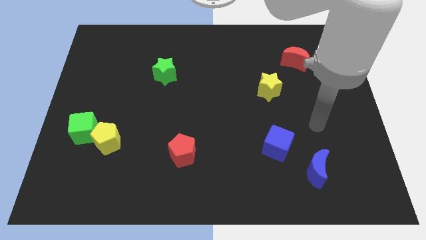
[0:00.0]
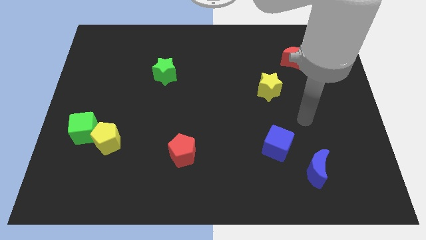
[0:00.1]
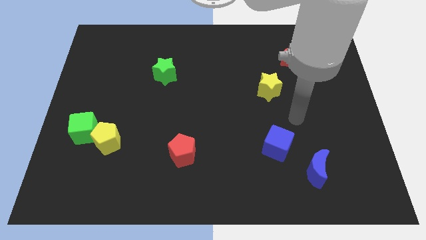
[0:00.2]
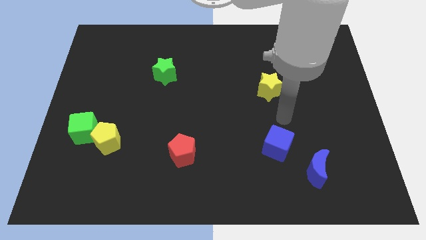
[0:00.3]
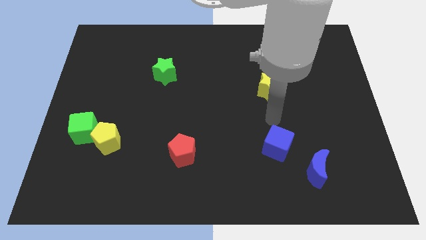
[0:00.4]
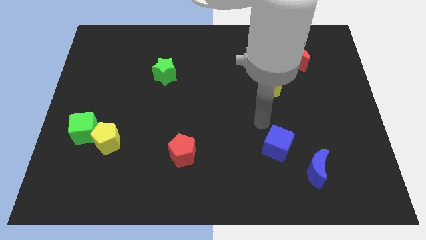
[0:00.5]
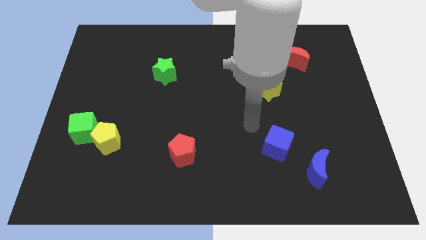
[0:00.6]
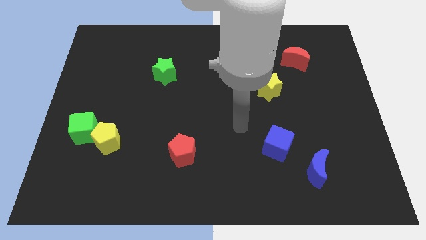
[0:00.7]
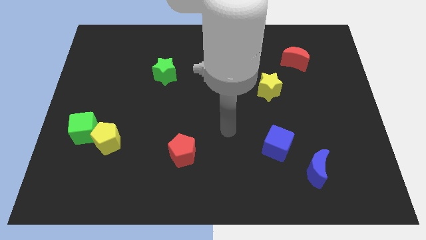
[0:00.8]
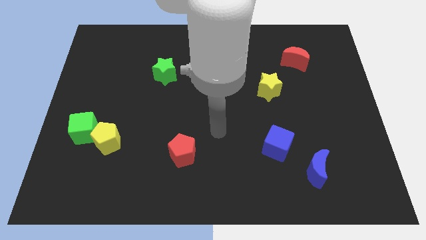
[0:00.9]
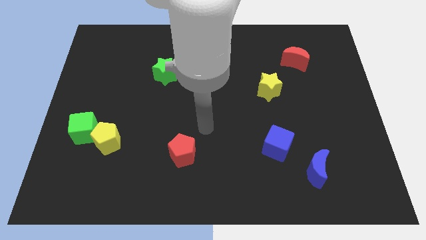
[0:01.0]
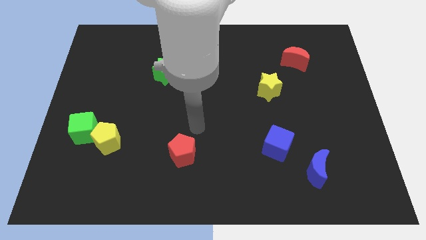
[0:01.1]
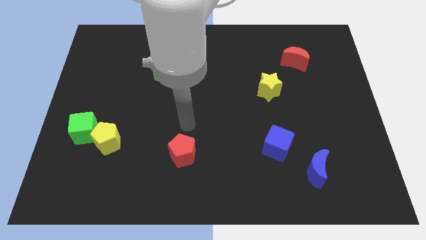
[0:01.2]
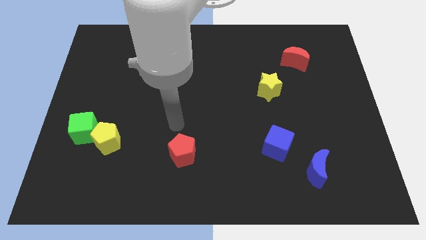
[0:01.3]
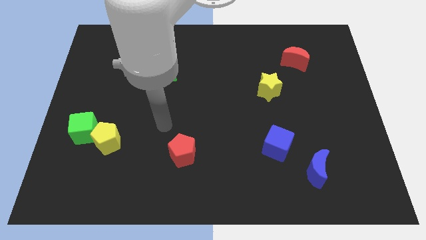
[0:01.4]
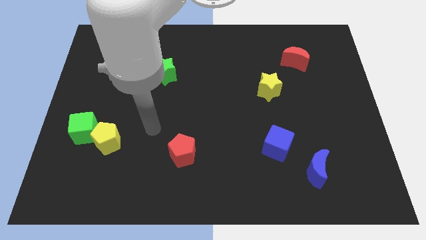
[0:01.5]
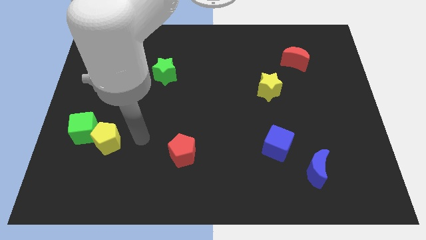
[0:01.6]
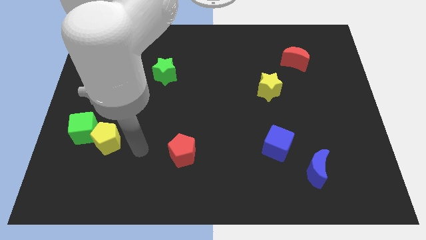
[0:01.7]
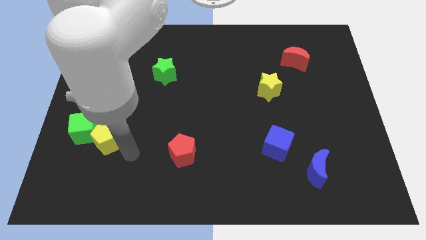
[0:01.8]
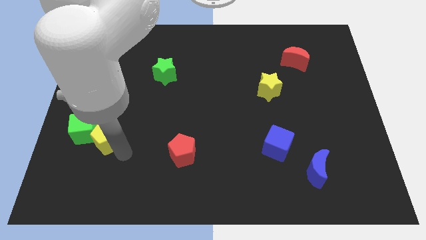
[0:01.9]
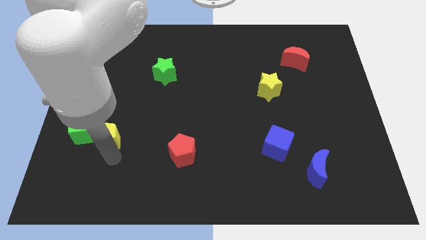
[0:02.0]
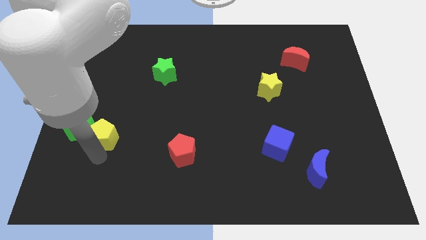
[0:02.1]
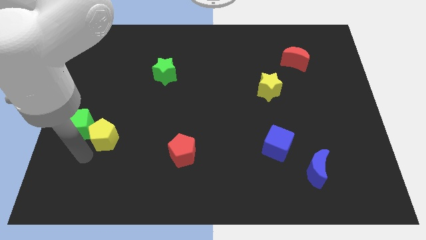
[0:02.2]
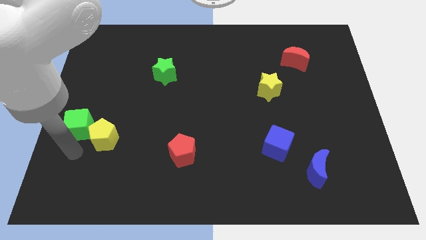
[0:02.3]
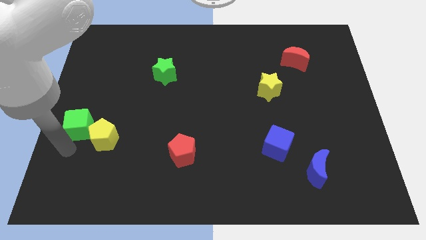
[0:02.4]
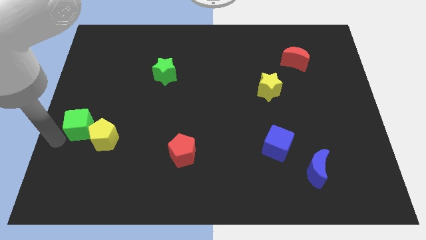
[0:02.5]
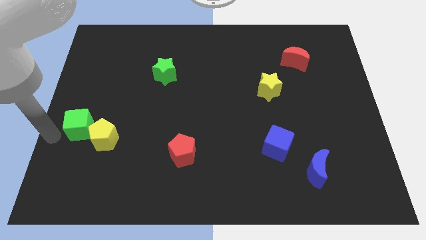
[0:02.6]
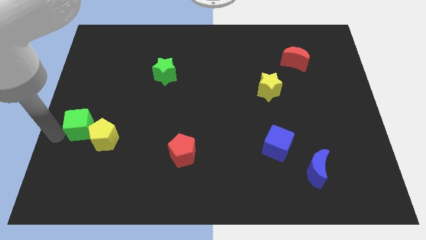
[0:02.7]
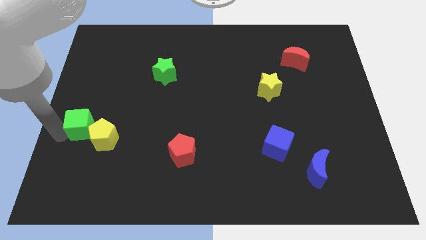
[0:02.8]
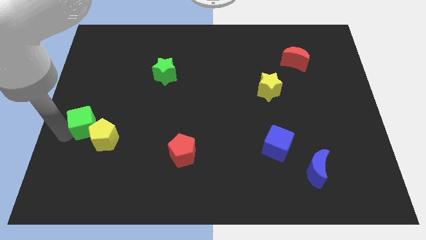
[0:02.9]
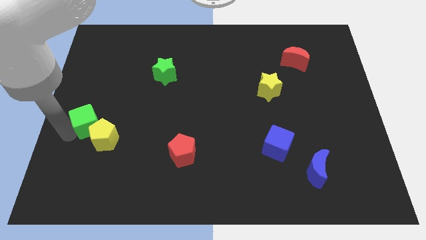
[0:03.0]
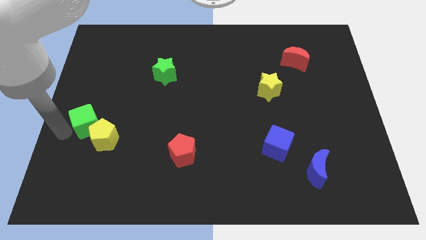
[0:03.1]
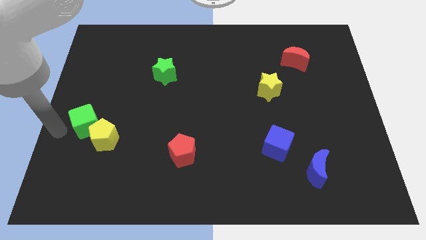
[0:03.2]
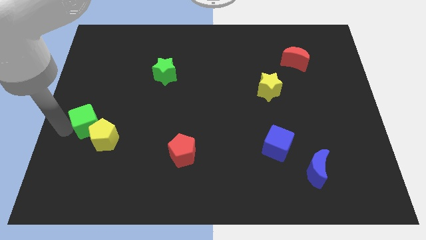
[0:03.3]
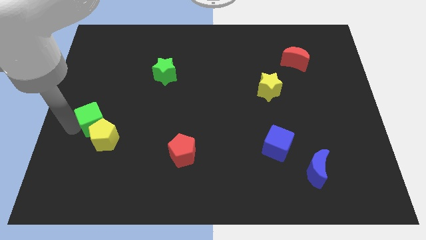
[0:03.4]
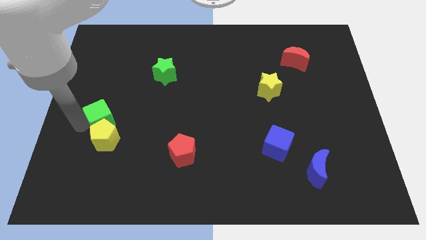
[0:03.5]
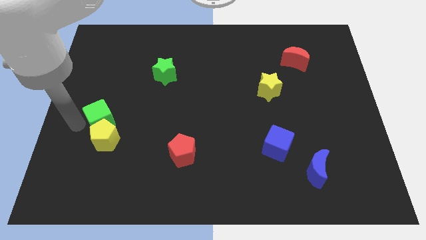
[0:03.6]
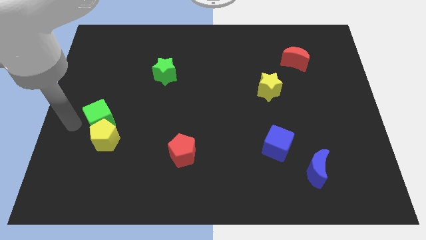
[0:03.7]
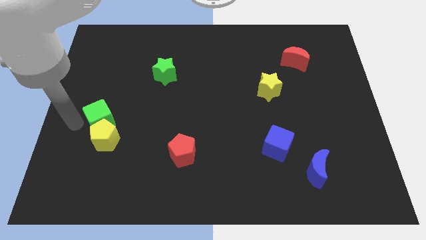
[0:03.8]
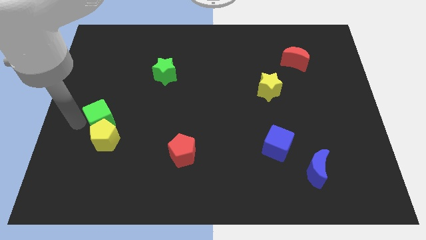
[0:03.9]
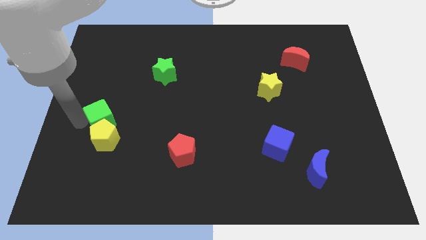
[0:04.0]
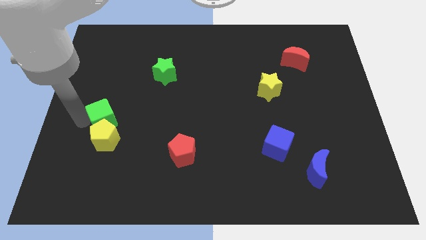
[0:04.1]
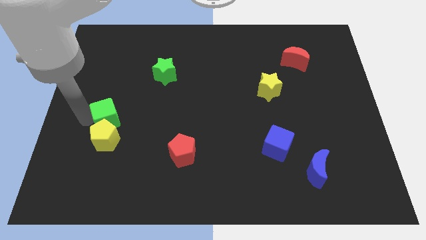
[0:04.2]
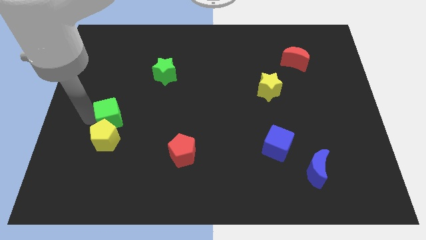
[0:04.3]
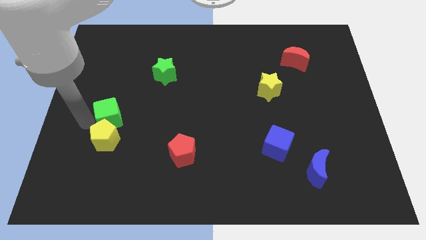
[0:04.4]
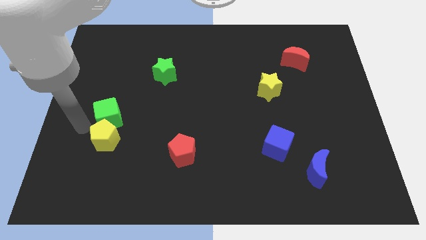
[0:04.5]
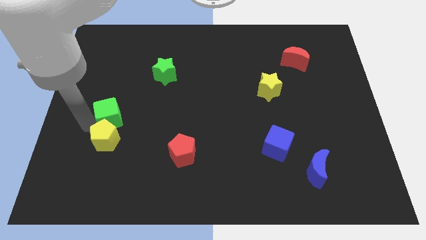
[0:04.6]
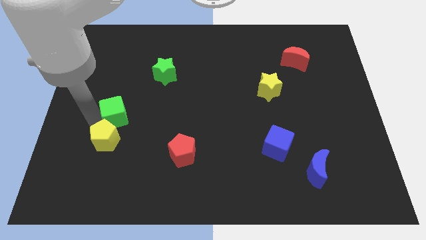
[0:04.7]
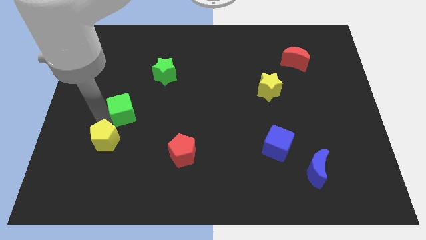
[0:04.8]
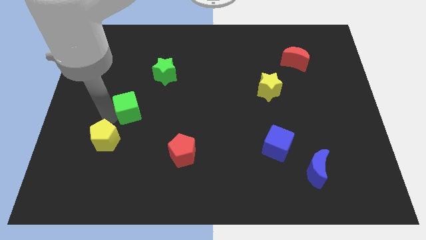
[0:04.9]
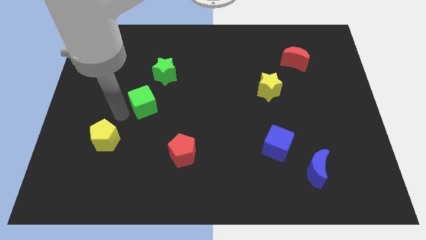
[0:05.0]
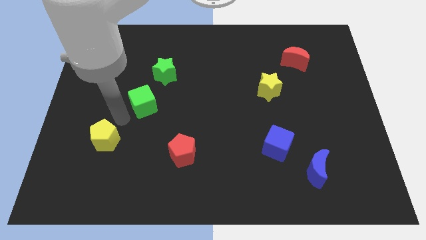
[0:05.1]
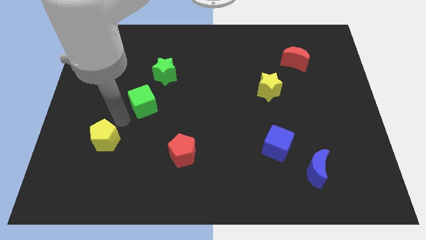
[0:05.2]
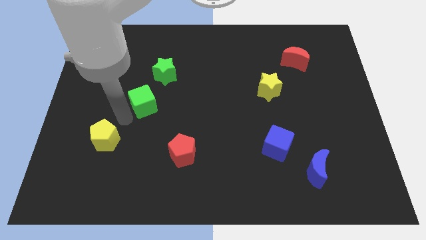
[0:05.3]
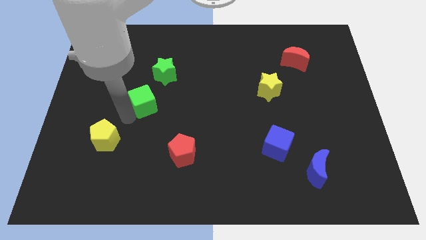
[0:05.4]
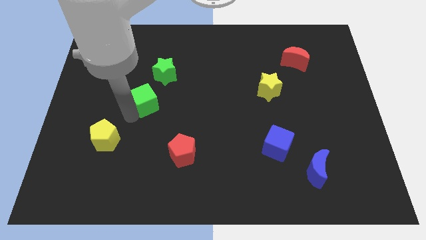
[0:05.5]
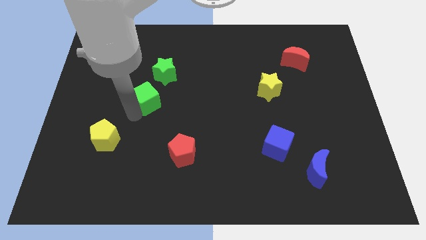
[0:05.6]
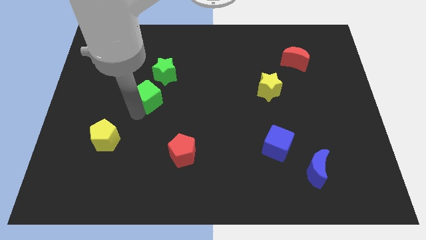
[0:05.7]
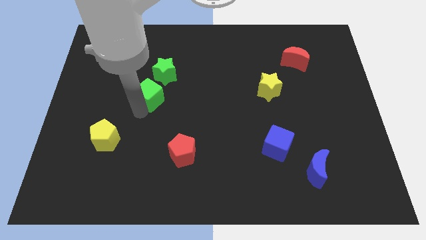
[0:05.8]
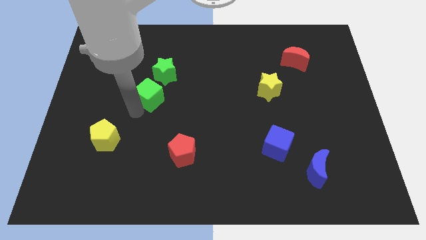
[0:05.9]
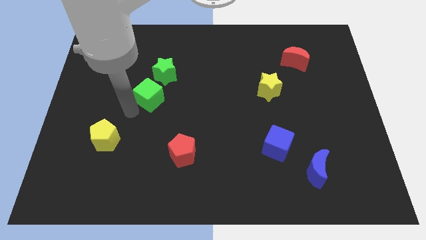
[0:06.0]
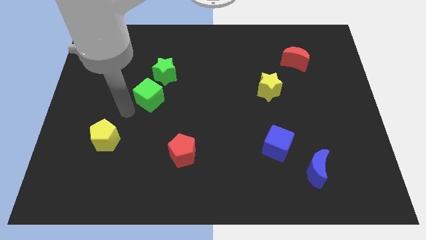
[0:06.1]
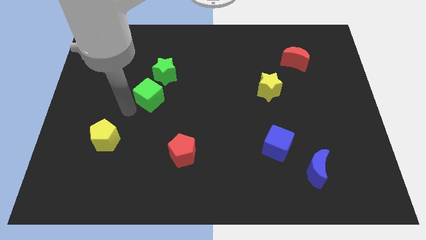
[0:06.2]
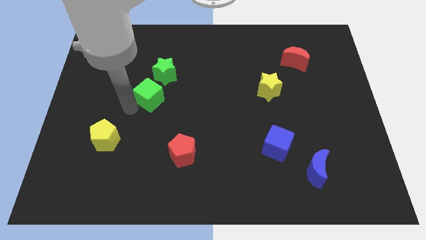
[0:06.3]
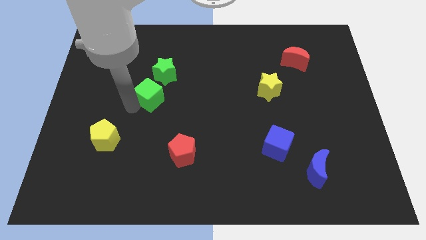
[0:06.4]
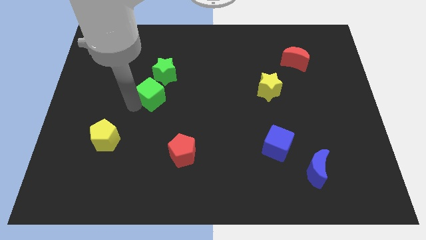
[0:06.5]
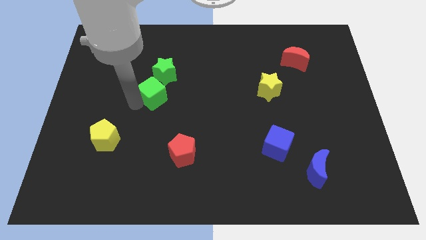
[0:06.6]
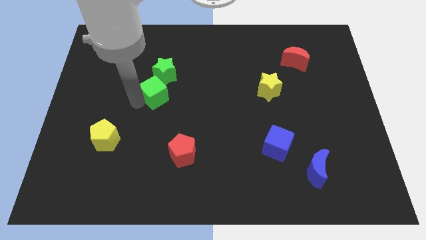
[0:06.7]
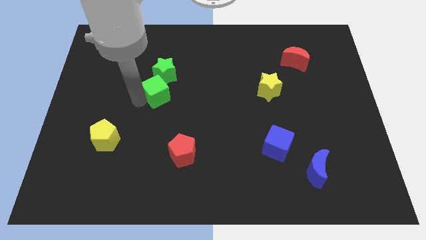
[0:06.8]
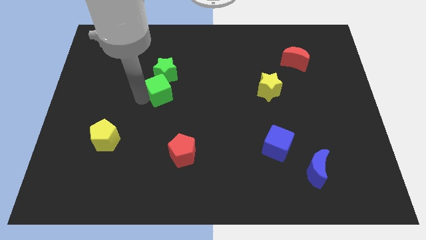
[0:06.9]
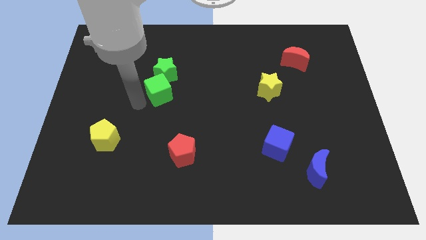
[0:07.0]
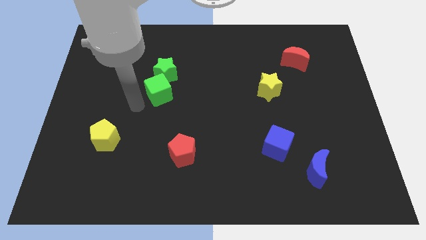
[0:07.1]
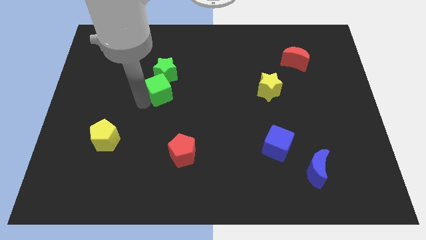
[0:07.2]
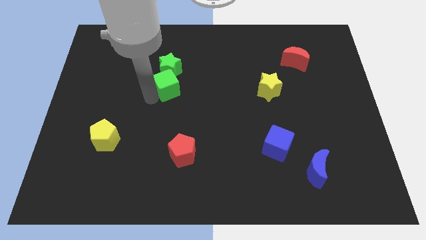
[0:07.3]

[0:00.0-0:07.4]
push the green cube upwards and right diagonally

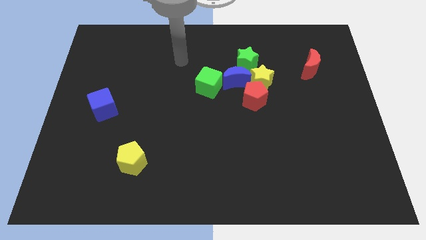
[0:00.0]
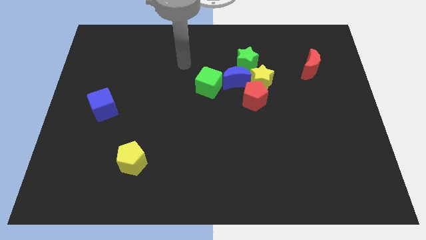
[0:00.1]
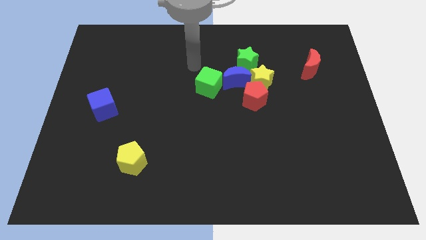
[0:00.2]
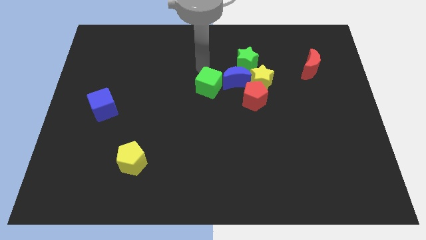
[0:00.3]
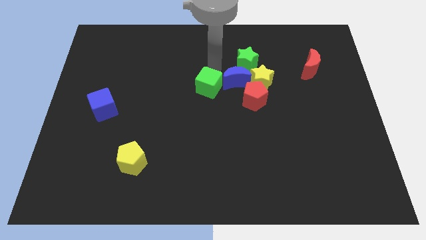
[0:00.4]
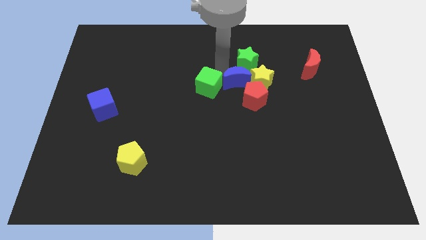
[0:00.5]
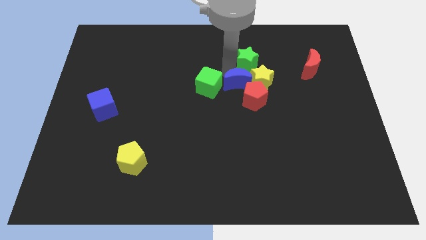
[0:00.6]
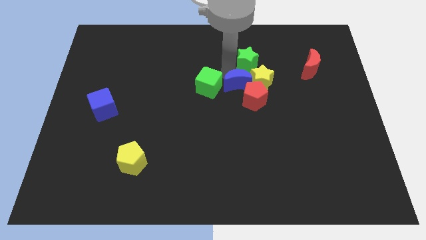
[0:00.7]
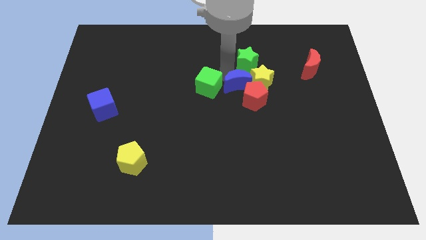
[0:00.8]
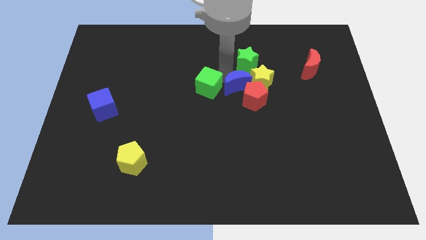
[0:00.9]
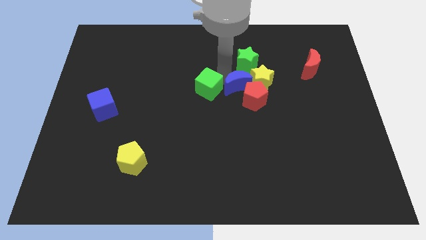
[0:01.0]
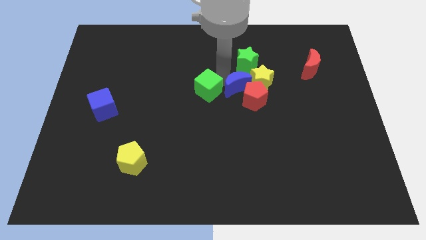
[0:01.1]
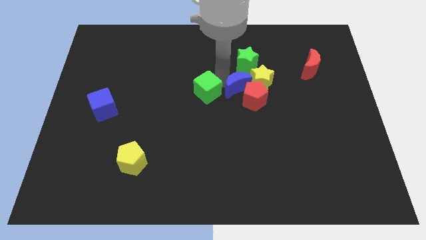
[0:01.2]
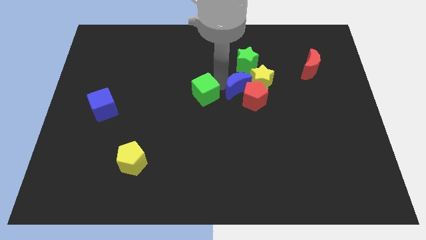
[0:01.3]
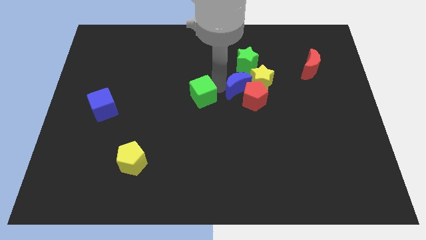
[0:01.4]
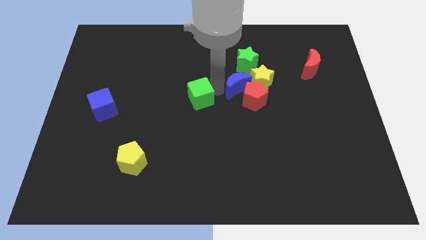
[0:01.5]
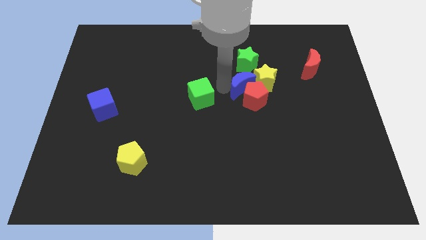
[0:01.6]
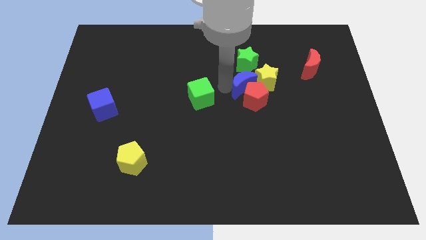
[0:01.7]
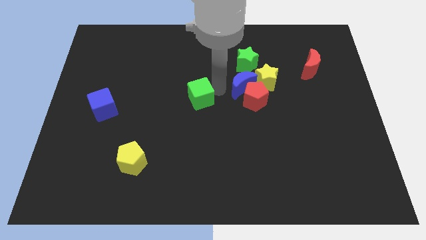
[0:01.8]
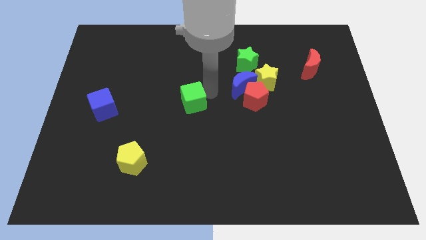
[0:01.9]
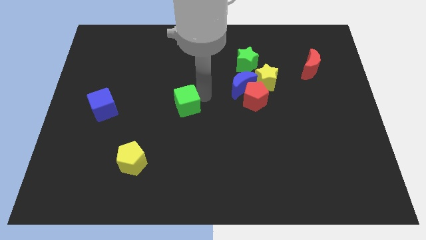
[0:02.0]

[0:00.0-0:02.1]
push the green cube diagonally down and to the left somewhat
